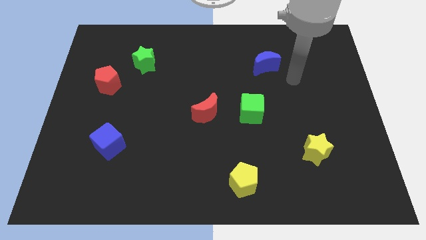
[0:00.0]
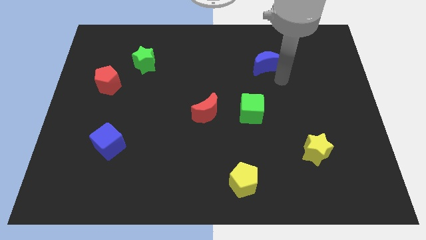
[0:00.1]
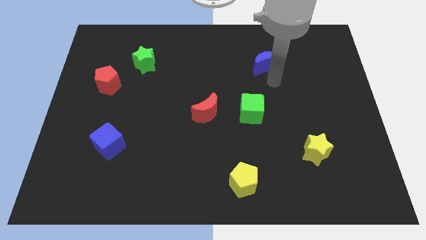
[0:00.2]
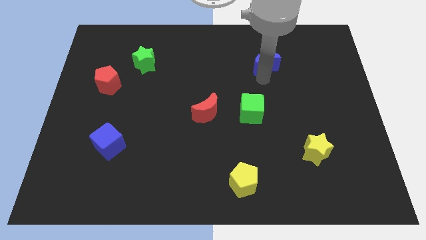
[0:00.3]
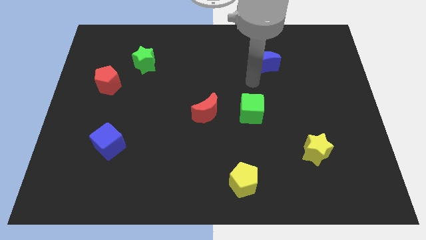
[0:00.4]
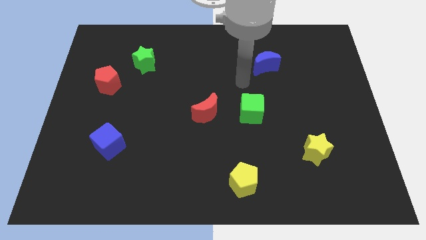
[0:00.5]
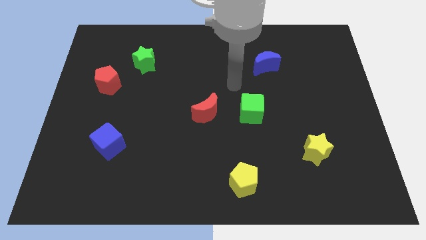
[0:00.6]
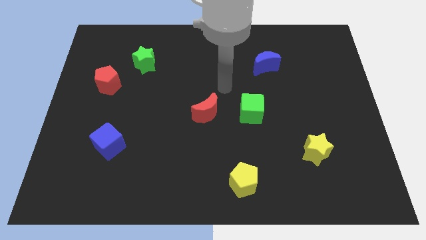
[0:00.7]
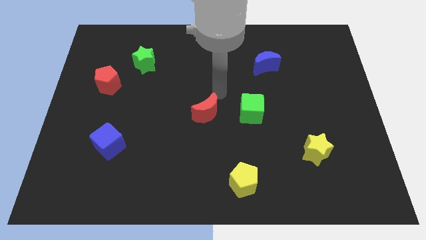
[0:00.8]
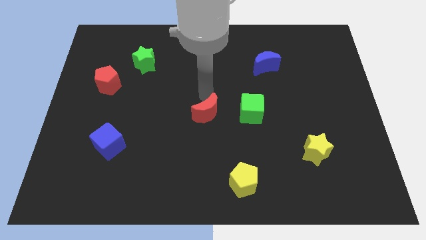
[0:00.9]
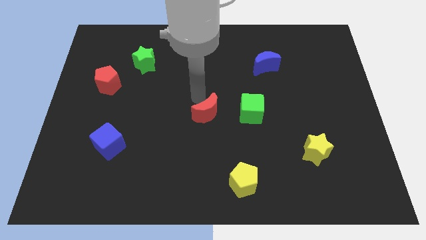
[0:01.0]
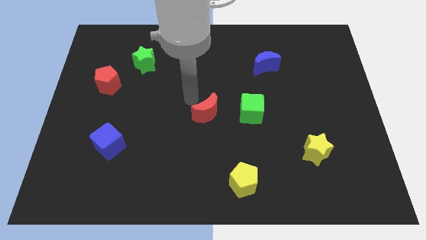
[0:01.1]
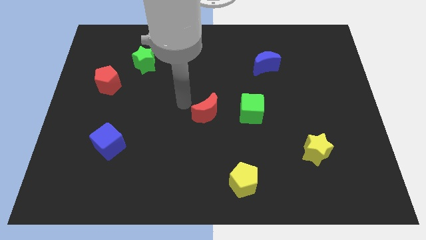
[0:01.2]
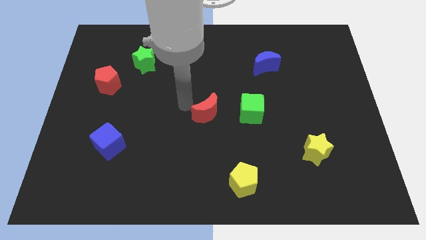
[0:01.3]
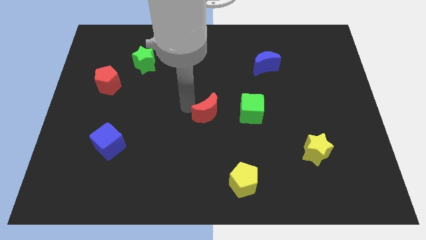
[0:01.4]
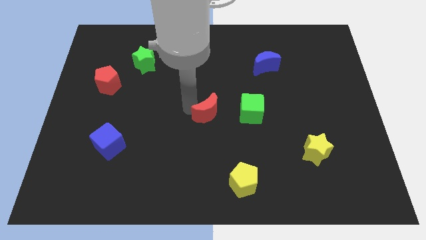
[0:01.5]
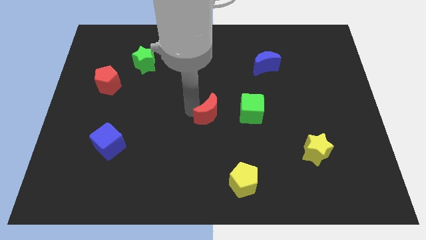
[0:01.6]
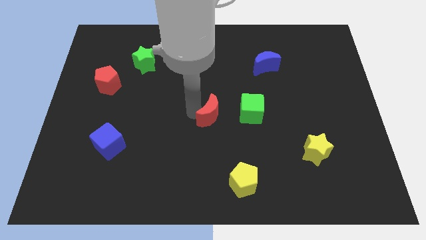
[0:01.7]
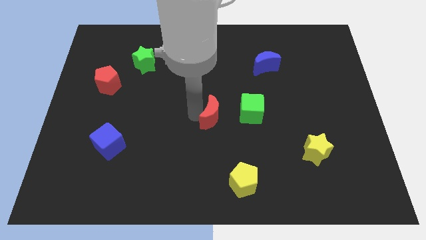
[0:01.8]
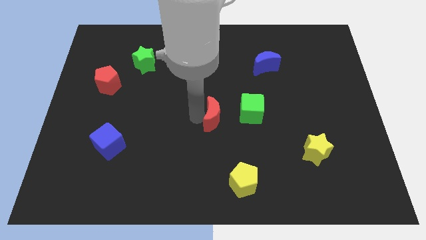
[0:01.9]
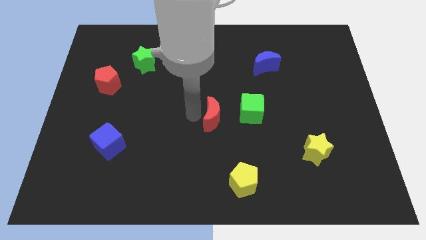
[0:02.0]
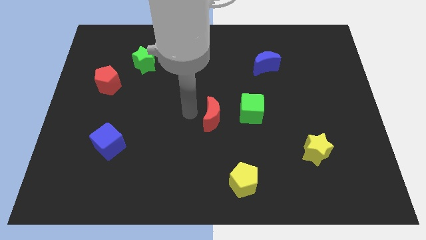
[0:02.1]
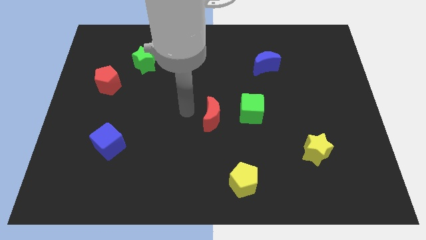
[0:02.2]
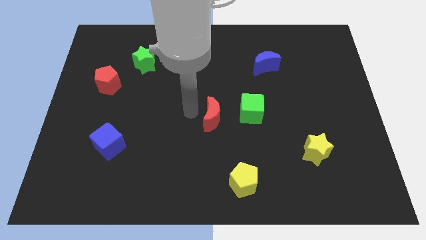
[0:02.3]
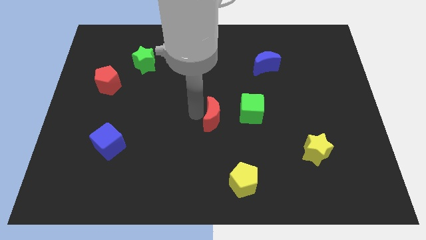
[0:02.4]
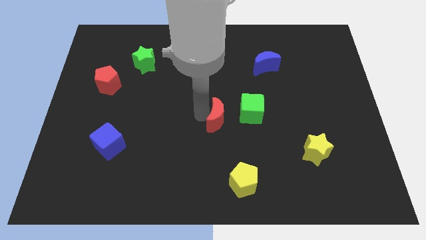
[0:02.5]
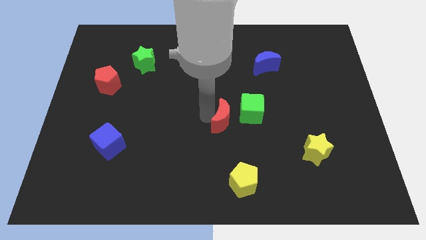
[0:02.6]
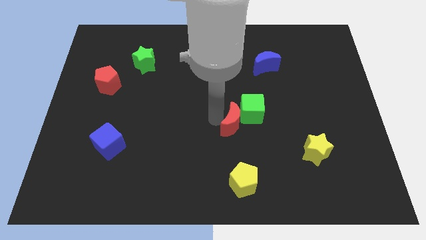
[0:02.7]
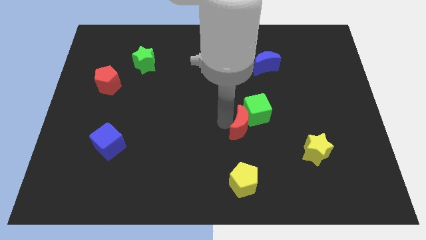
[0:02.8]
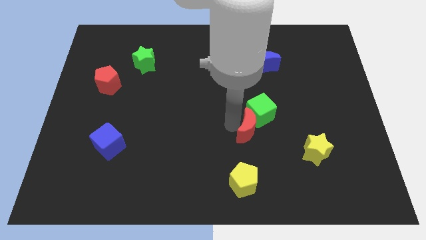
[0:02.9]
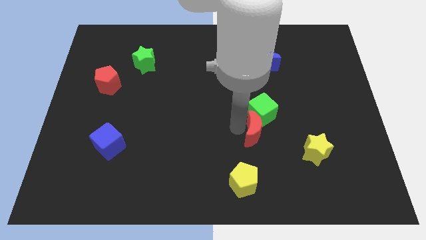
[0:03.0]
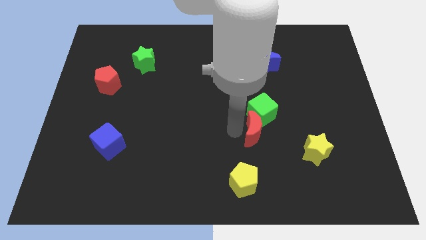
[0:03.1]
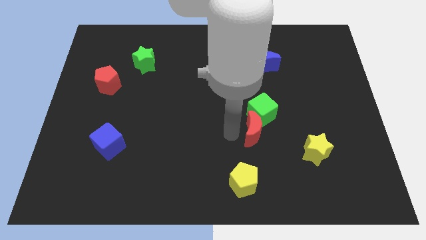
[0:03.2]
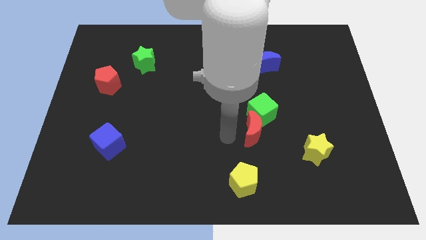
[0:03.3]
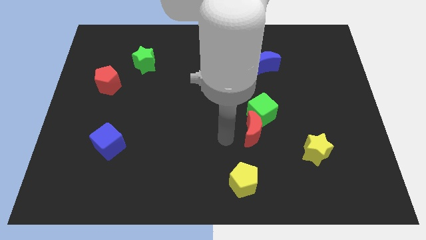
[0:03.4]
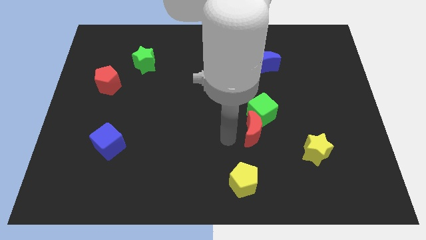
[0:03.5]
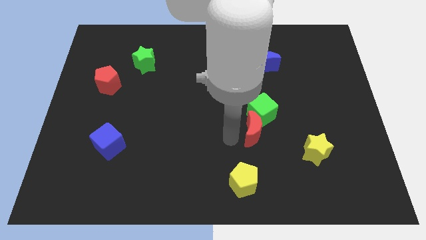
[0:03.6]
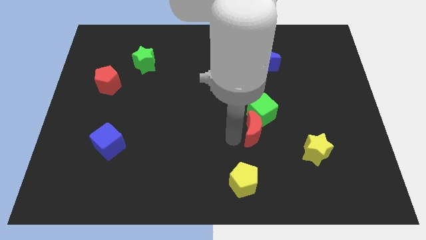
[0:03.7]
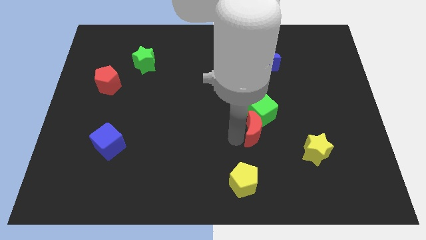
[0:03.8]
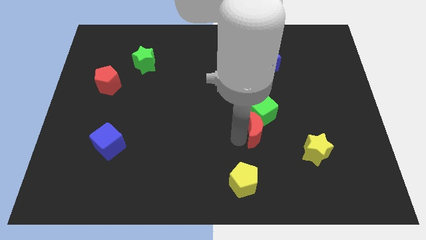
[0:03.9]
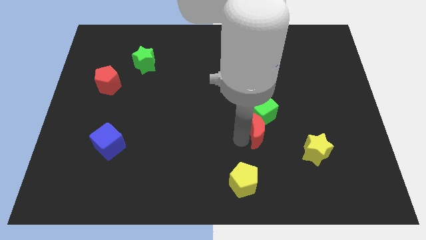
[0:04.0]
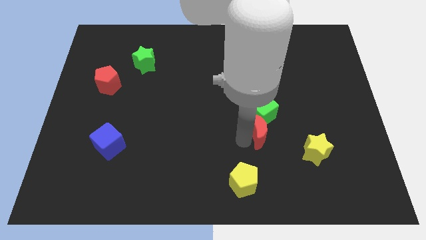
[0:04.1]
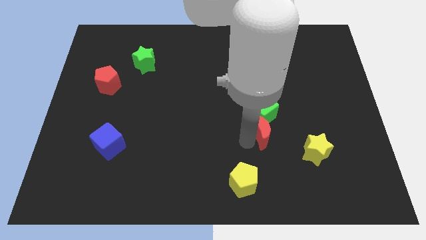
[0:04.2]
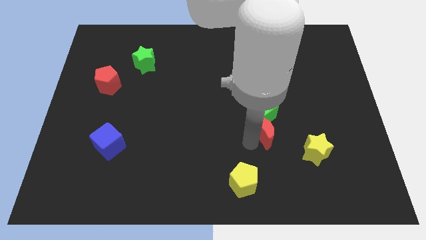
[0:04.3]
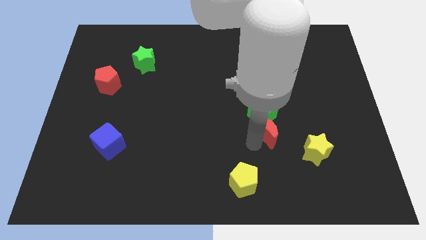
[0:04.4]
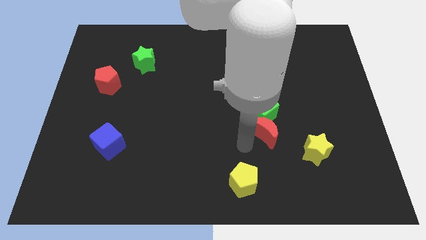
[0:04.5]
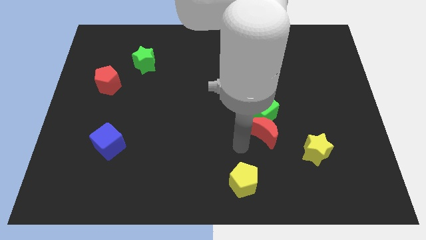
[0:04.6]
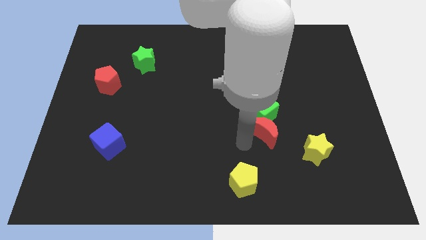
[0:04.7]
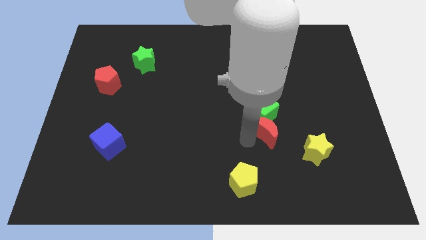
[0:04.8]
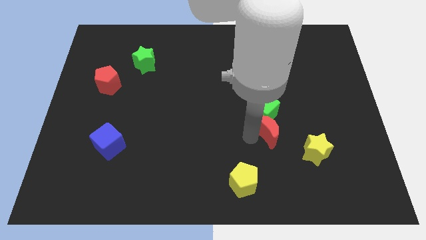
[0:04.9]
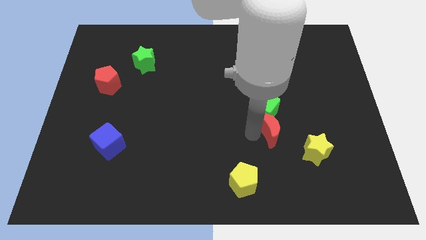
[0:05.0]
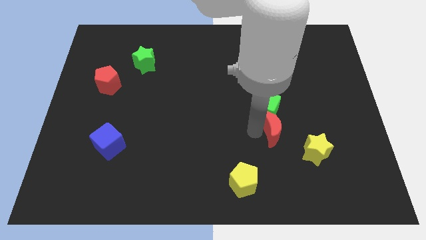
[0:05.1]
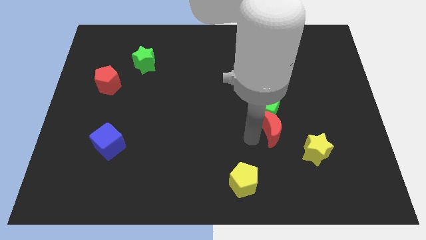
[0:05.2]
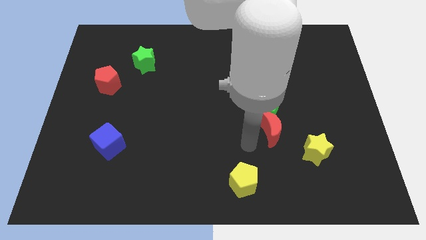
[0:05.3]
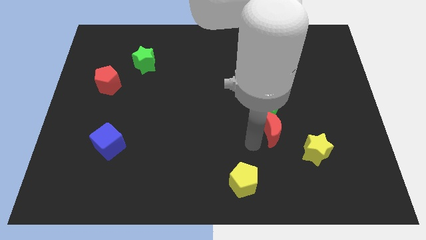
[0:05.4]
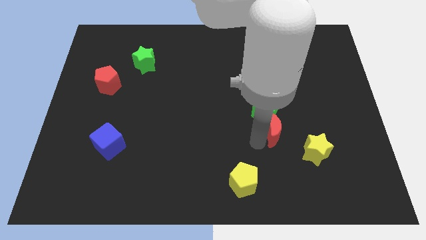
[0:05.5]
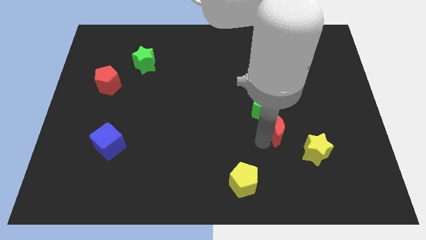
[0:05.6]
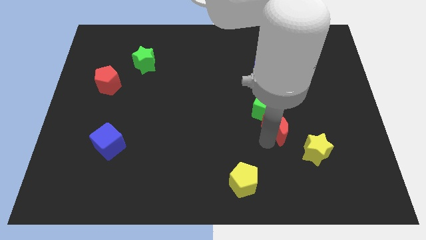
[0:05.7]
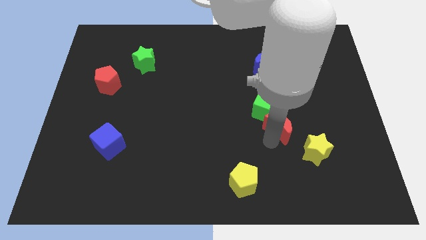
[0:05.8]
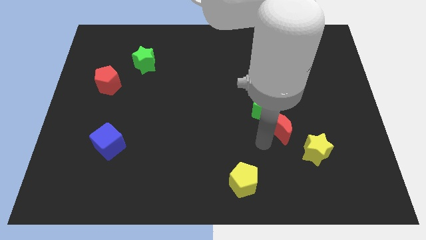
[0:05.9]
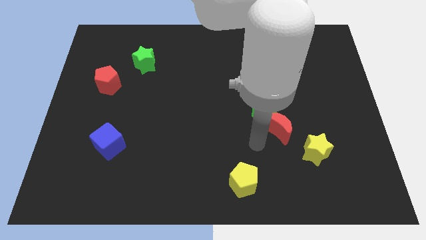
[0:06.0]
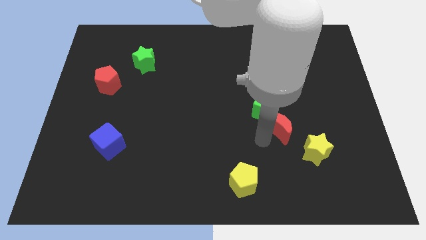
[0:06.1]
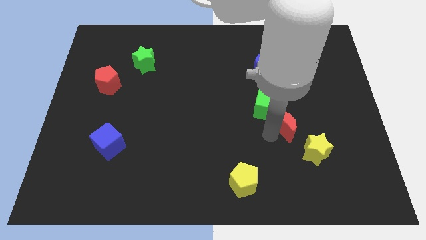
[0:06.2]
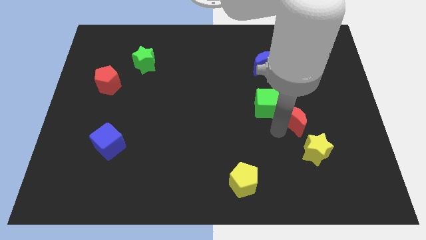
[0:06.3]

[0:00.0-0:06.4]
put the red moon to the right of the green cube
